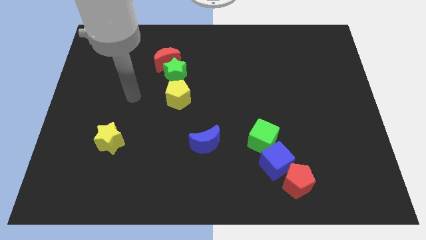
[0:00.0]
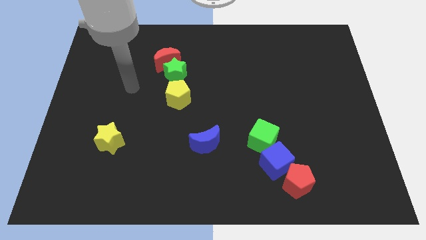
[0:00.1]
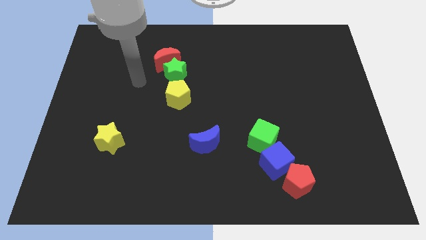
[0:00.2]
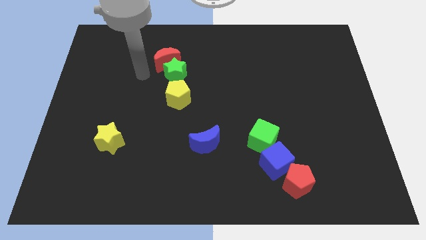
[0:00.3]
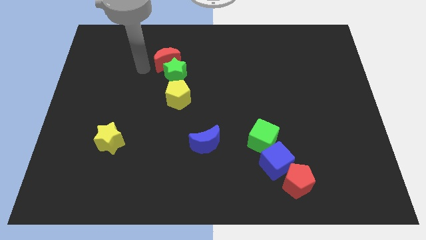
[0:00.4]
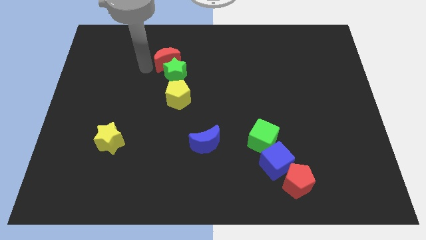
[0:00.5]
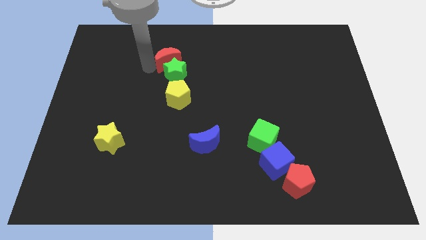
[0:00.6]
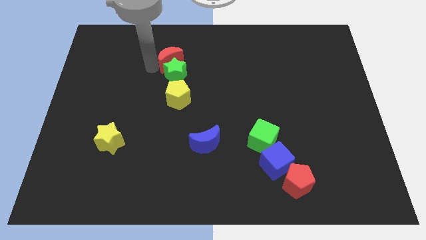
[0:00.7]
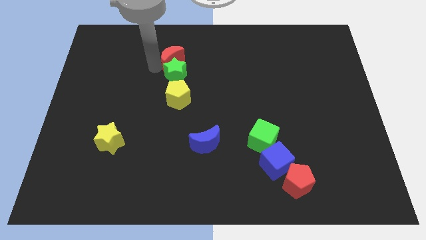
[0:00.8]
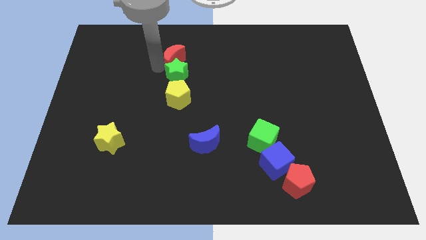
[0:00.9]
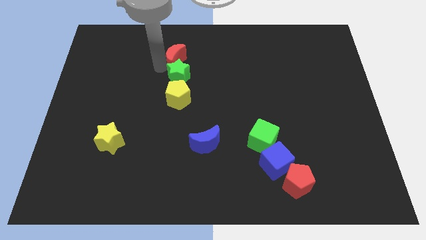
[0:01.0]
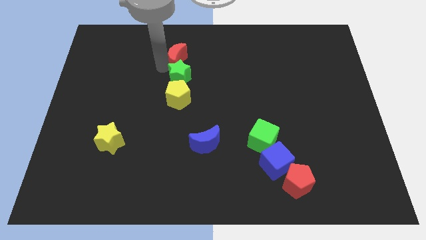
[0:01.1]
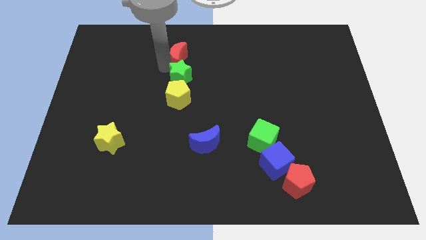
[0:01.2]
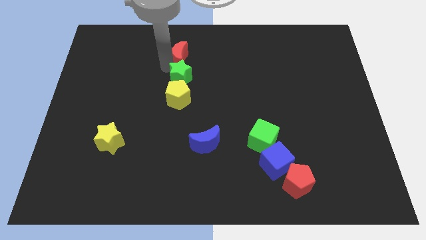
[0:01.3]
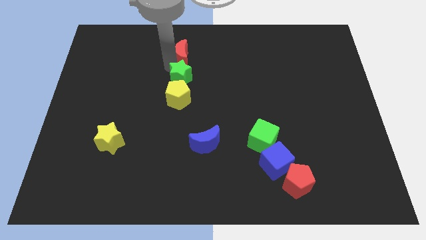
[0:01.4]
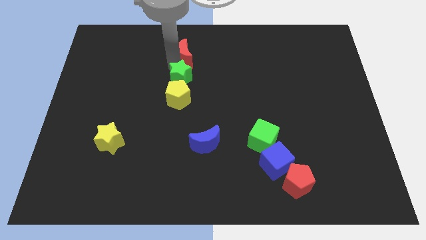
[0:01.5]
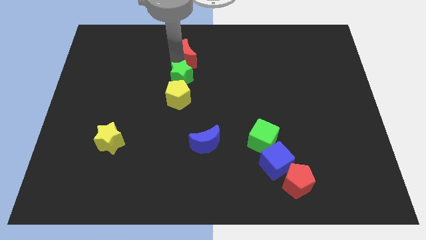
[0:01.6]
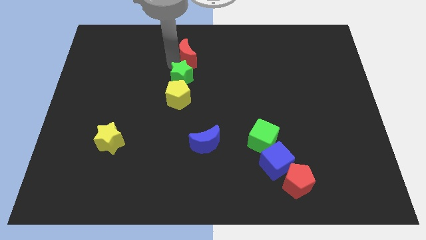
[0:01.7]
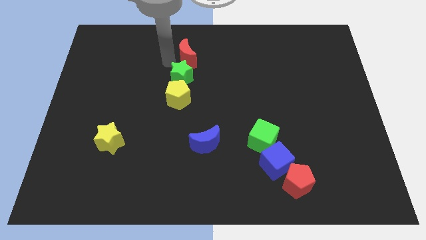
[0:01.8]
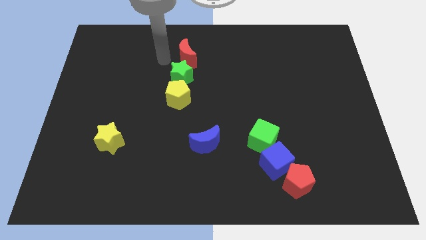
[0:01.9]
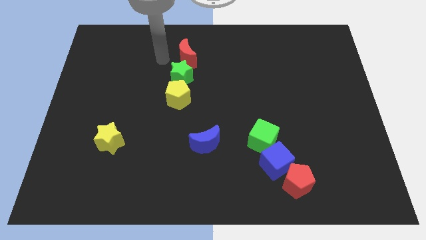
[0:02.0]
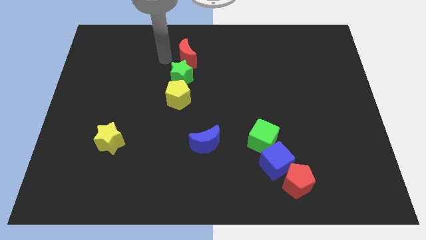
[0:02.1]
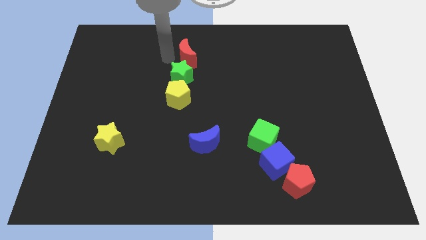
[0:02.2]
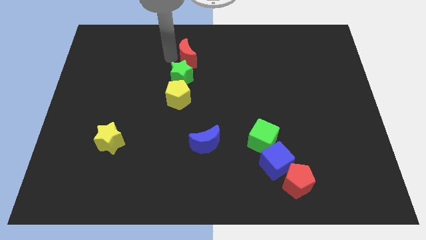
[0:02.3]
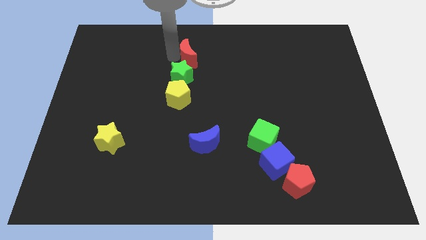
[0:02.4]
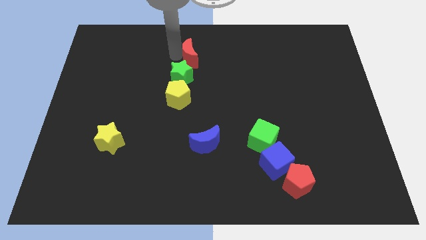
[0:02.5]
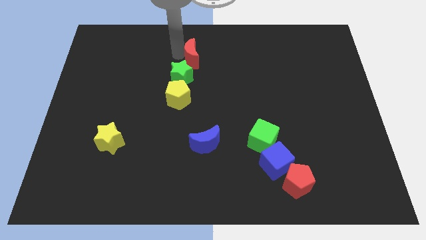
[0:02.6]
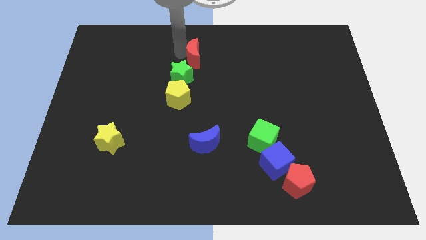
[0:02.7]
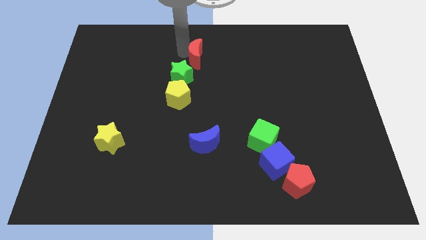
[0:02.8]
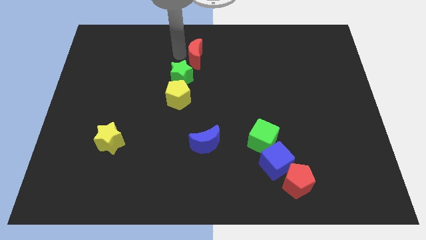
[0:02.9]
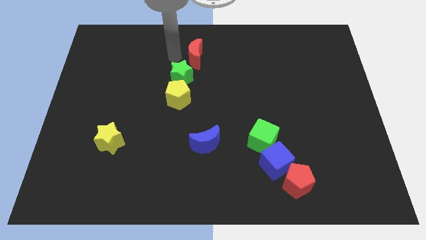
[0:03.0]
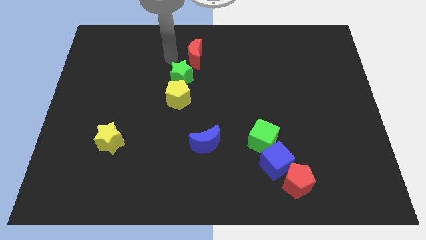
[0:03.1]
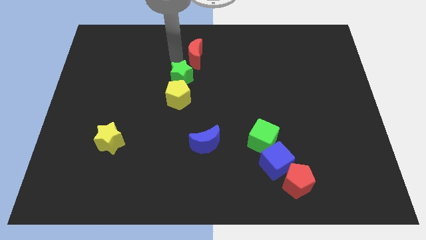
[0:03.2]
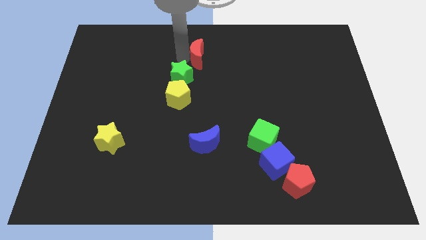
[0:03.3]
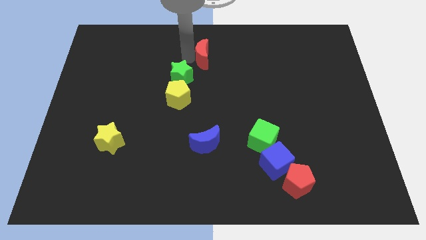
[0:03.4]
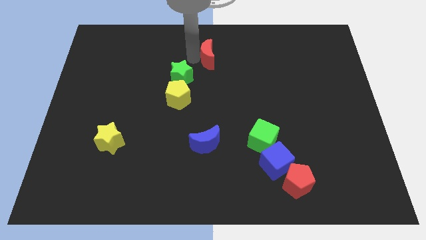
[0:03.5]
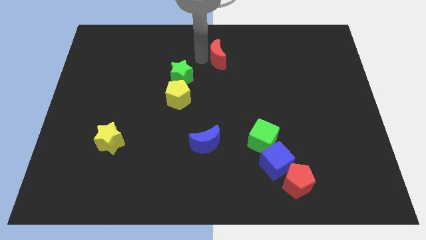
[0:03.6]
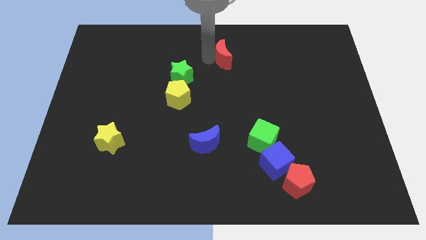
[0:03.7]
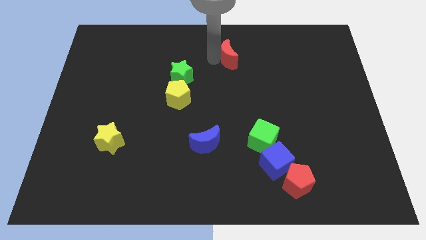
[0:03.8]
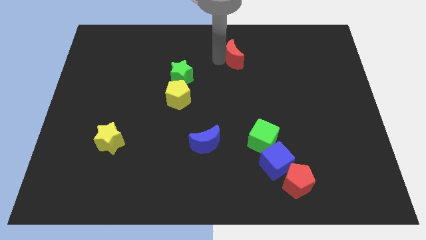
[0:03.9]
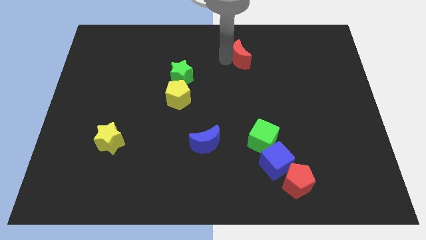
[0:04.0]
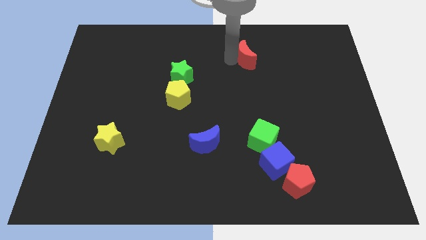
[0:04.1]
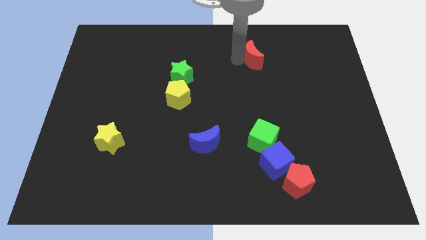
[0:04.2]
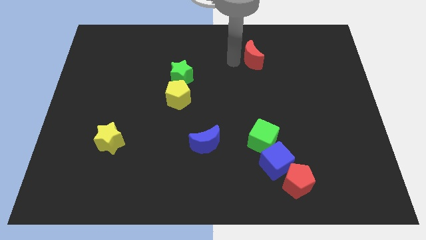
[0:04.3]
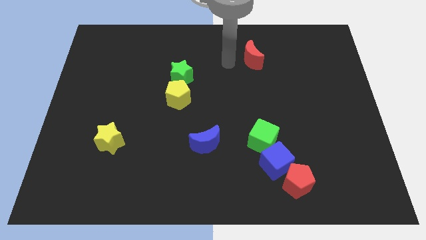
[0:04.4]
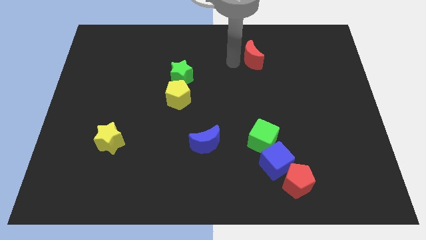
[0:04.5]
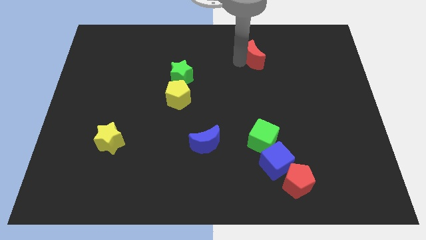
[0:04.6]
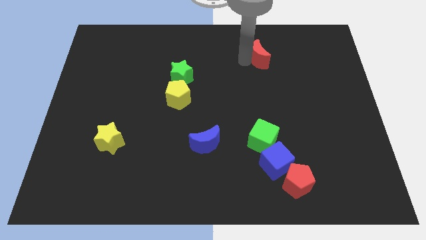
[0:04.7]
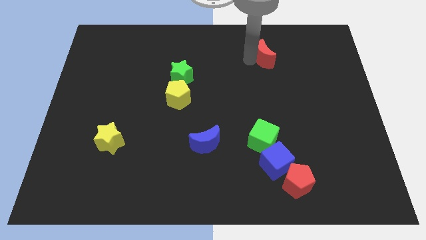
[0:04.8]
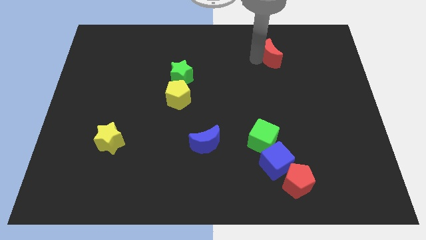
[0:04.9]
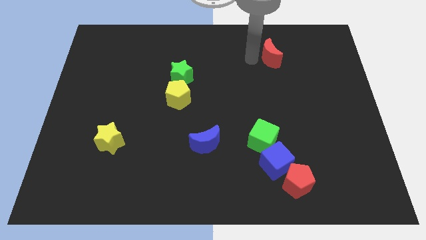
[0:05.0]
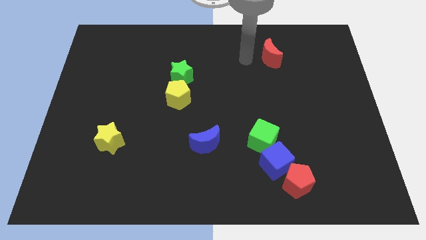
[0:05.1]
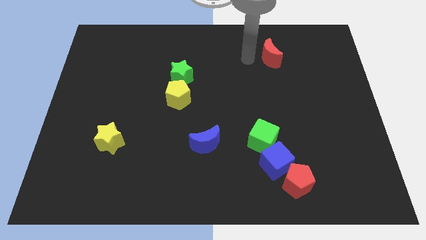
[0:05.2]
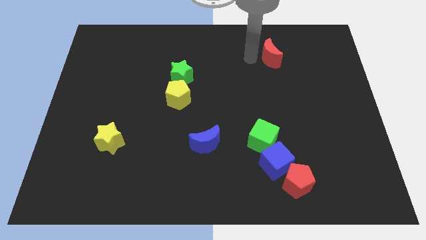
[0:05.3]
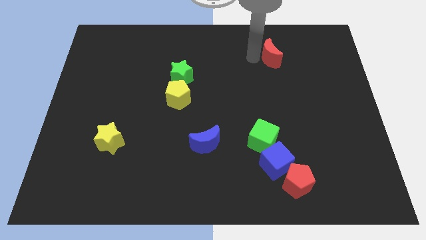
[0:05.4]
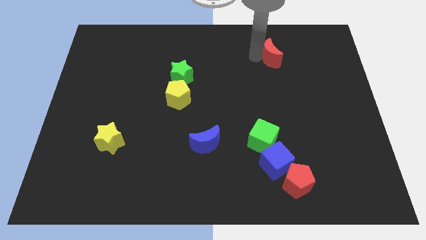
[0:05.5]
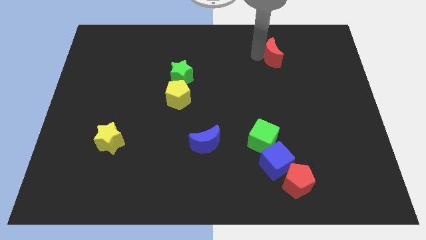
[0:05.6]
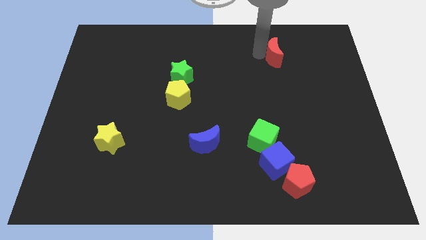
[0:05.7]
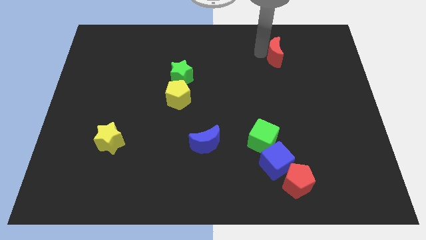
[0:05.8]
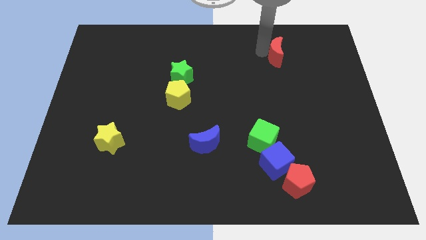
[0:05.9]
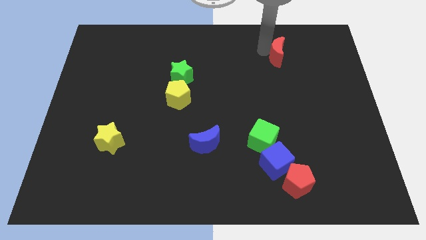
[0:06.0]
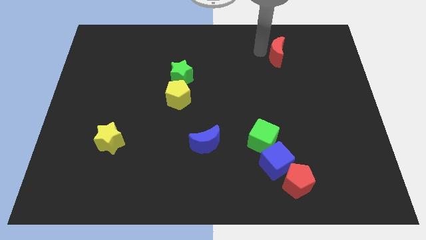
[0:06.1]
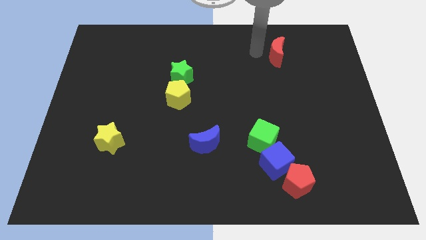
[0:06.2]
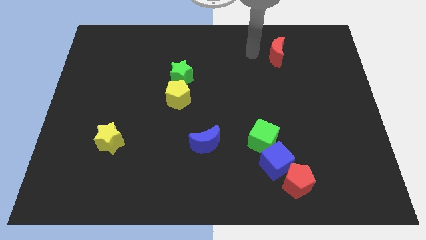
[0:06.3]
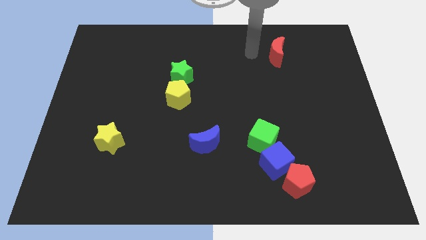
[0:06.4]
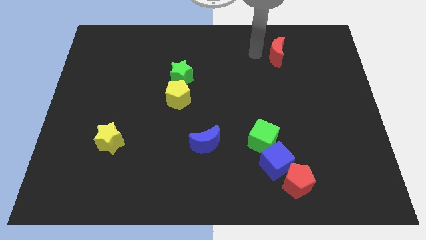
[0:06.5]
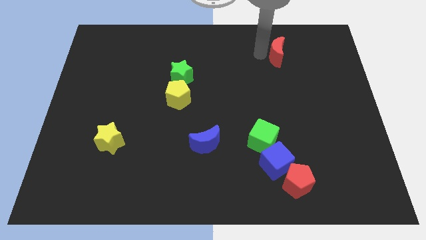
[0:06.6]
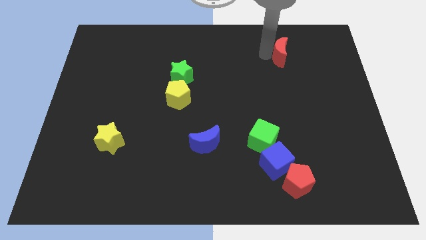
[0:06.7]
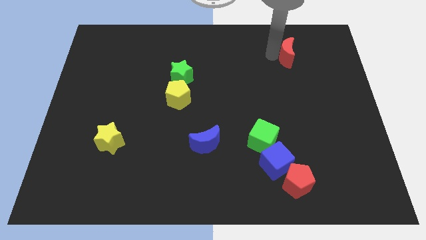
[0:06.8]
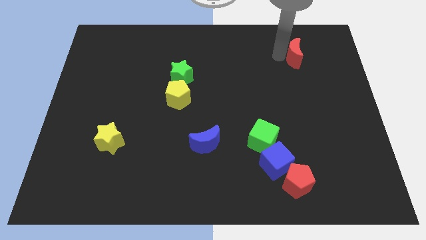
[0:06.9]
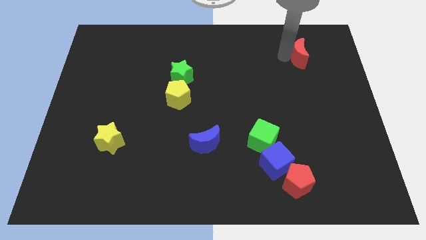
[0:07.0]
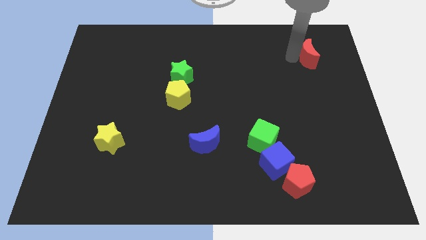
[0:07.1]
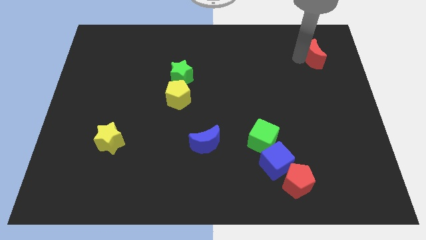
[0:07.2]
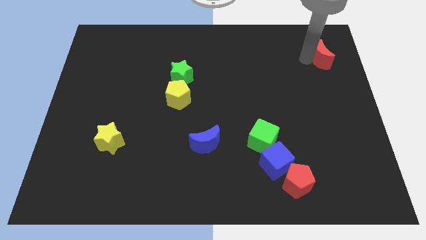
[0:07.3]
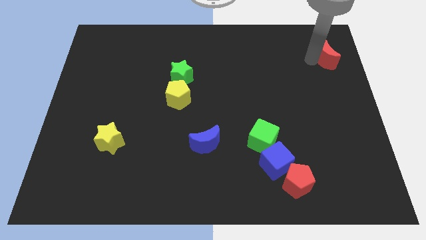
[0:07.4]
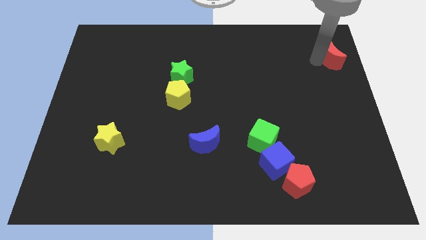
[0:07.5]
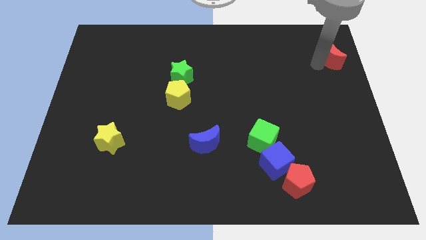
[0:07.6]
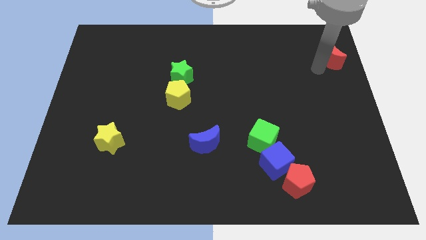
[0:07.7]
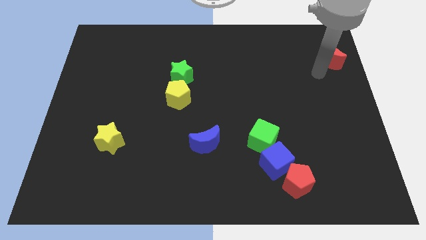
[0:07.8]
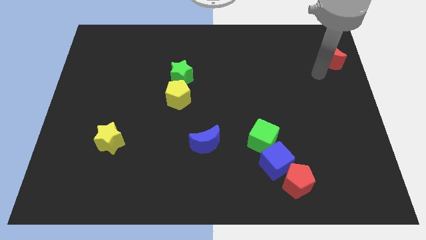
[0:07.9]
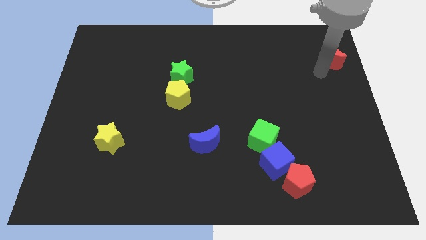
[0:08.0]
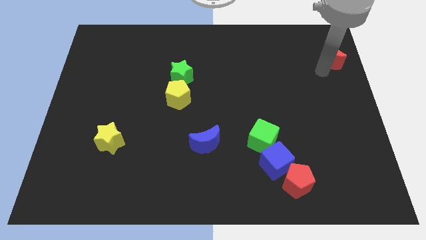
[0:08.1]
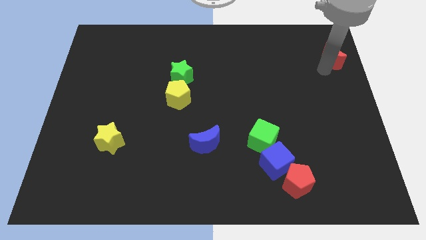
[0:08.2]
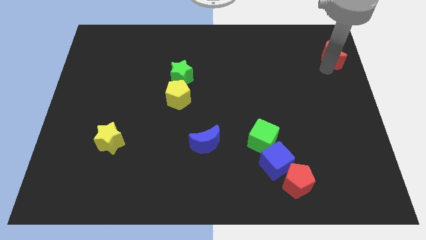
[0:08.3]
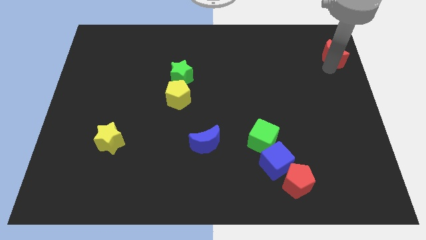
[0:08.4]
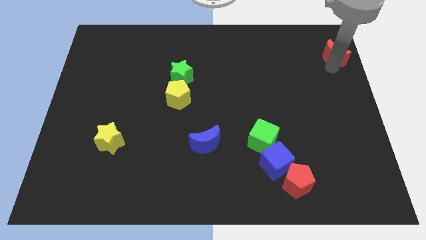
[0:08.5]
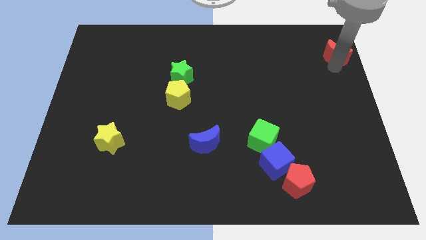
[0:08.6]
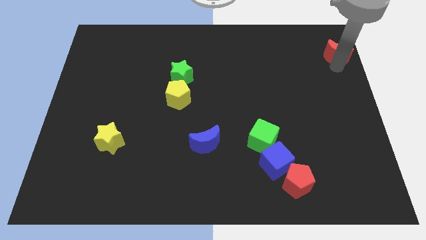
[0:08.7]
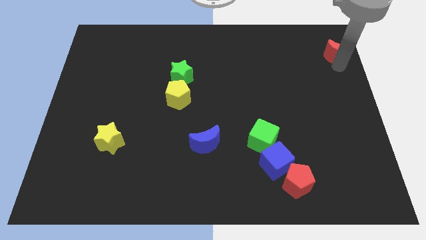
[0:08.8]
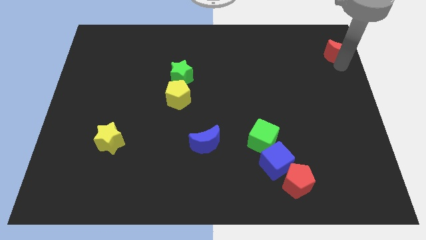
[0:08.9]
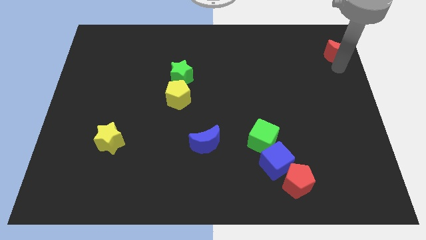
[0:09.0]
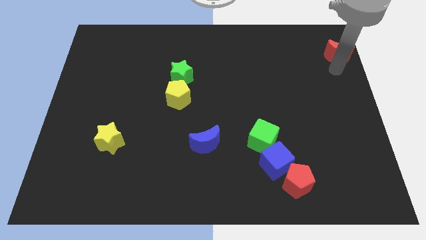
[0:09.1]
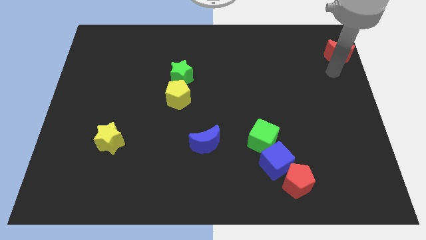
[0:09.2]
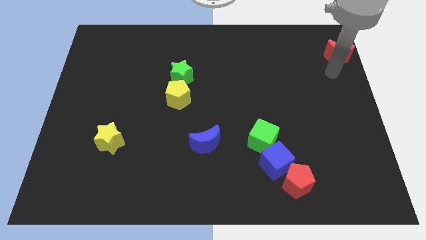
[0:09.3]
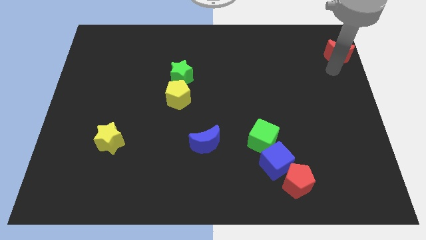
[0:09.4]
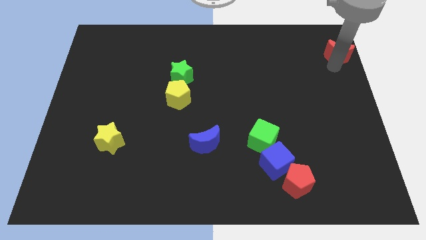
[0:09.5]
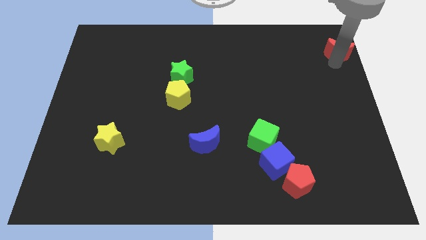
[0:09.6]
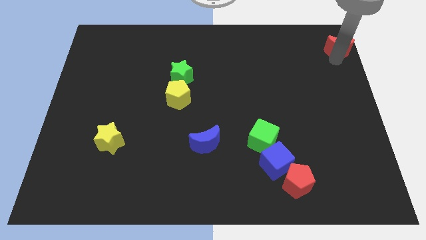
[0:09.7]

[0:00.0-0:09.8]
slide the red moon to the top right
